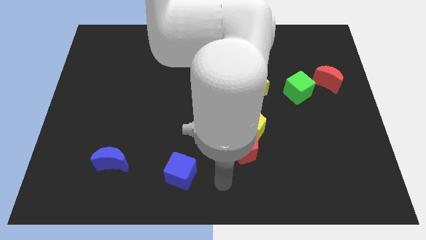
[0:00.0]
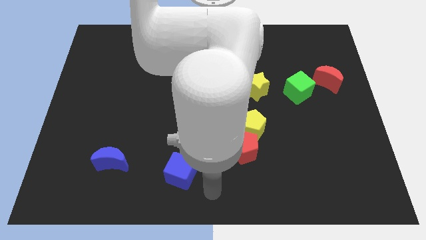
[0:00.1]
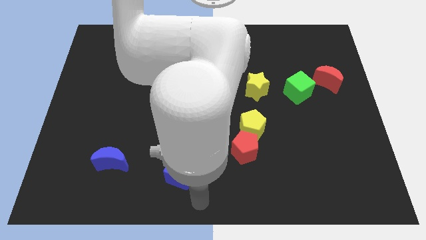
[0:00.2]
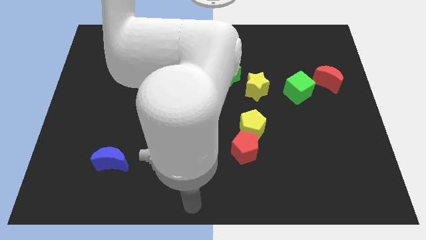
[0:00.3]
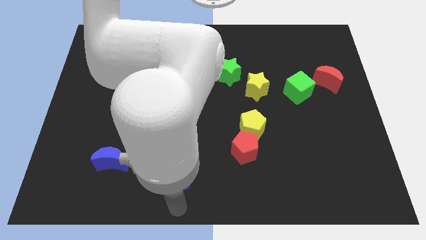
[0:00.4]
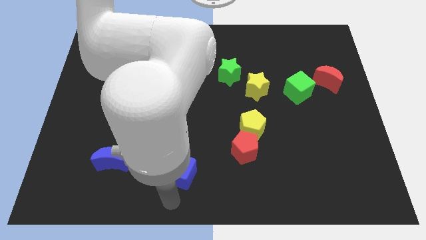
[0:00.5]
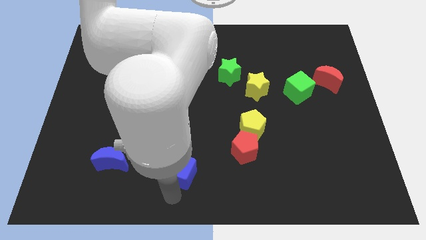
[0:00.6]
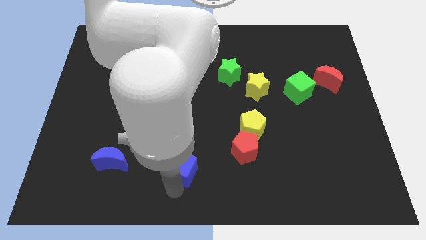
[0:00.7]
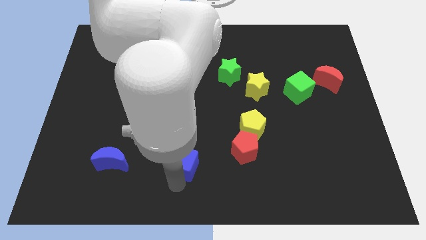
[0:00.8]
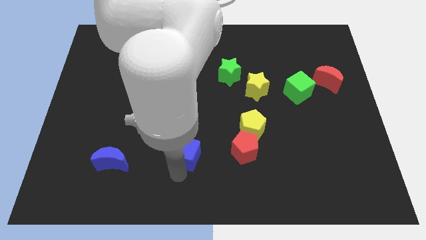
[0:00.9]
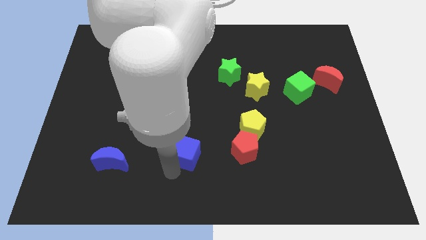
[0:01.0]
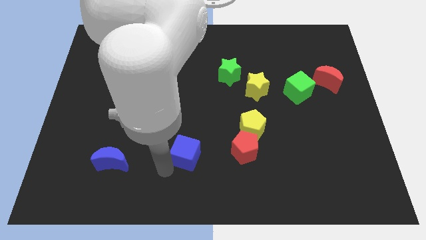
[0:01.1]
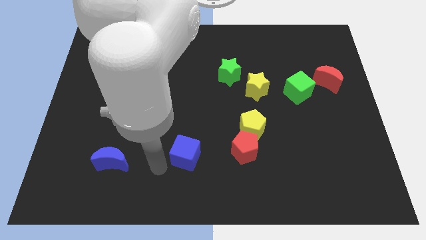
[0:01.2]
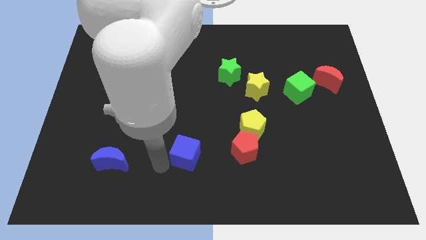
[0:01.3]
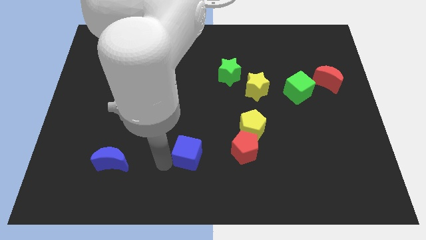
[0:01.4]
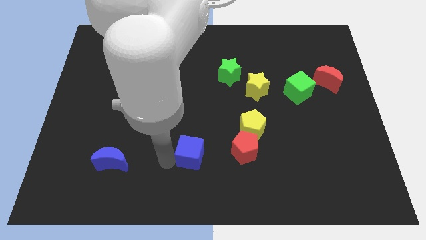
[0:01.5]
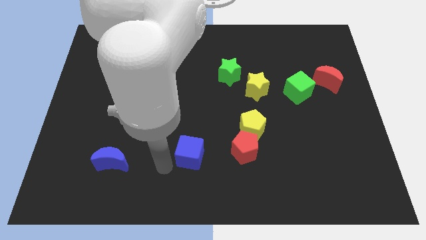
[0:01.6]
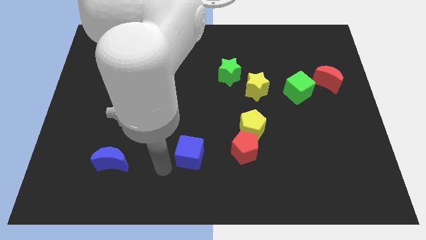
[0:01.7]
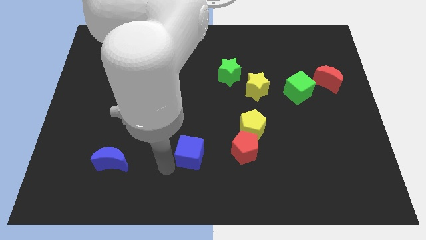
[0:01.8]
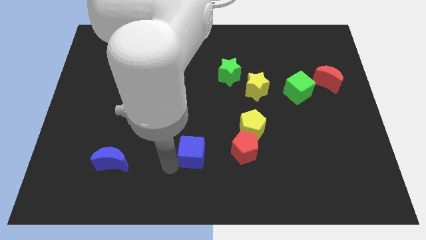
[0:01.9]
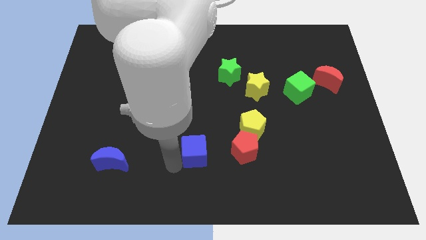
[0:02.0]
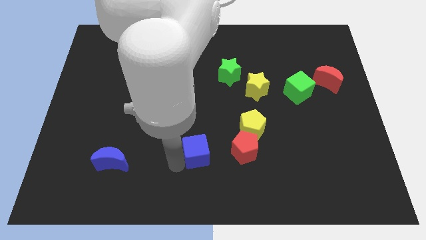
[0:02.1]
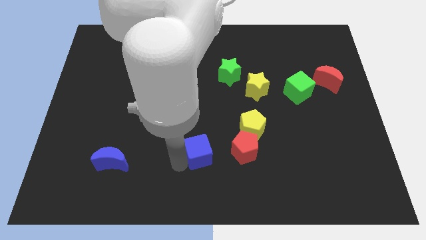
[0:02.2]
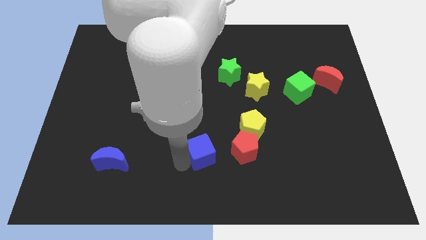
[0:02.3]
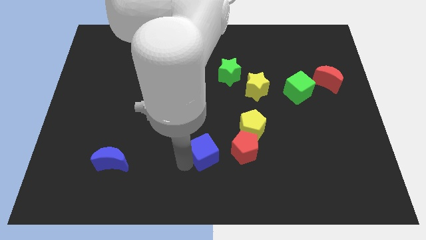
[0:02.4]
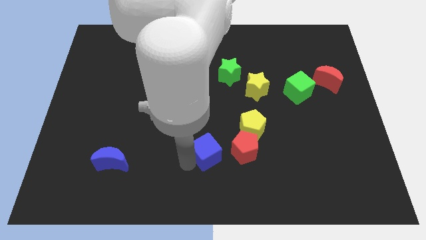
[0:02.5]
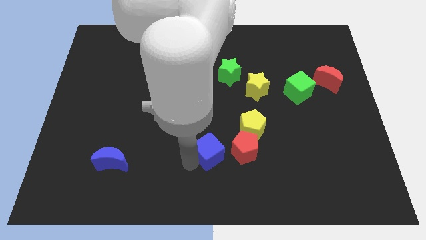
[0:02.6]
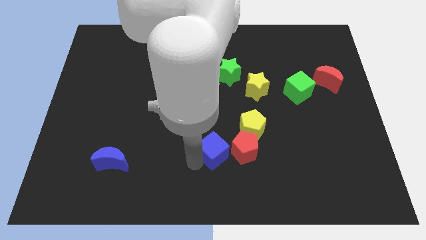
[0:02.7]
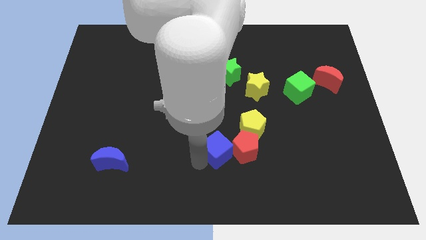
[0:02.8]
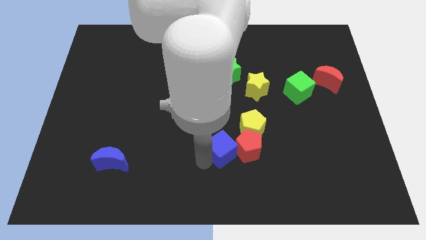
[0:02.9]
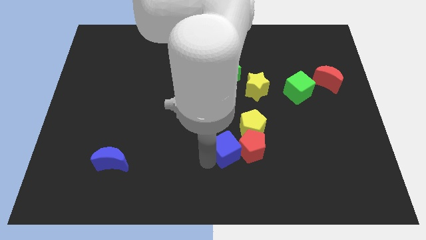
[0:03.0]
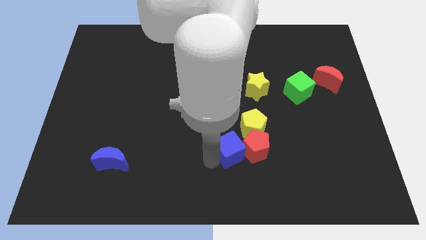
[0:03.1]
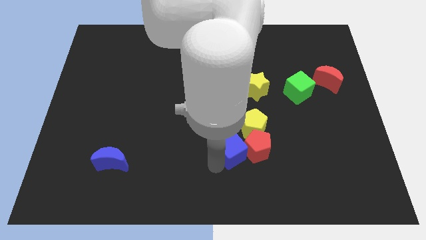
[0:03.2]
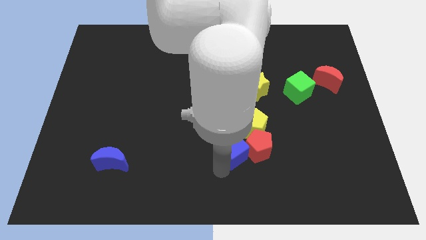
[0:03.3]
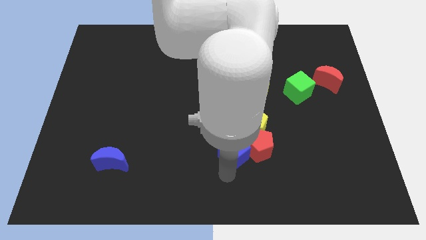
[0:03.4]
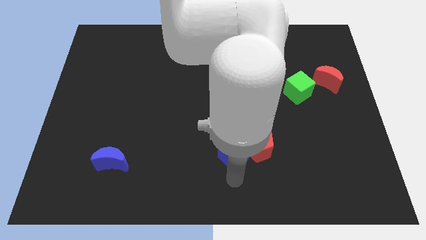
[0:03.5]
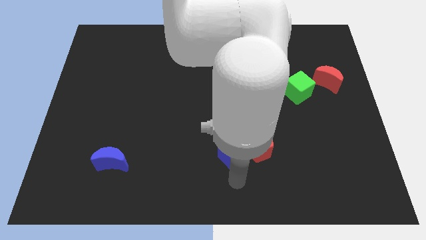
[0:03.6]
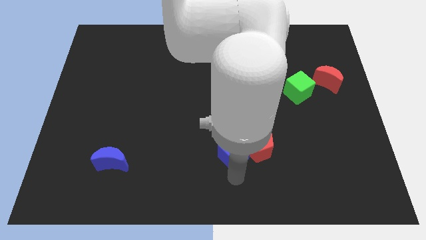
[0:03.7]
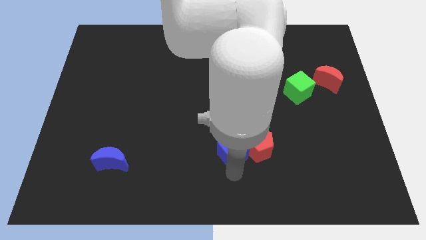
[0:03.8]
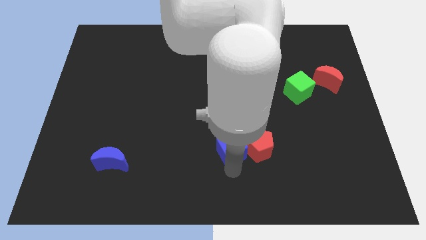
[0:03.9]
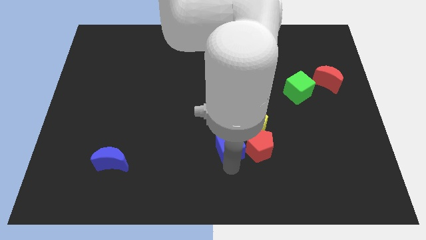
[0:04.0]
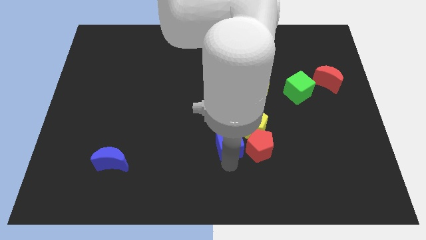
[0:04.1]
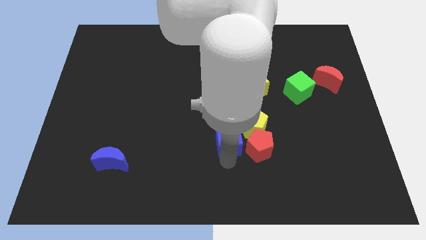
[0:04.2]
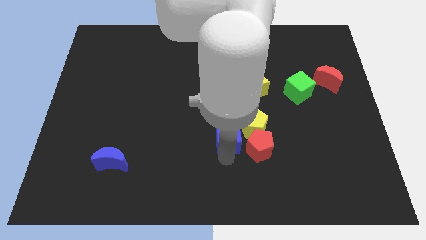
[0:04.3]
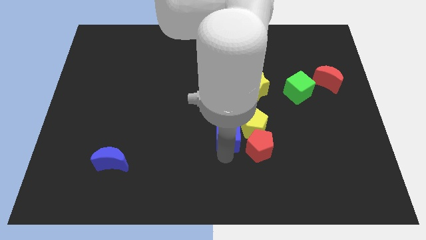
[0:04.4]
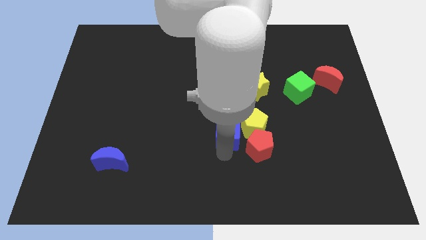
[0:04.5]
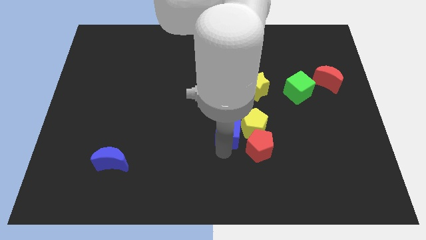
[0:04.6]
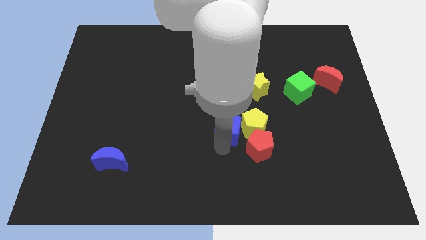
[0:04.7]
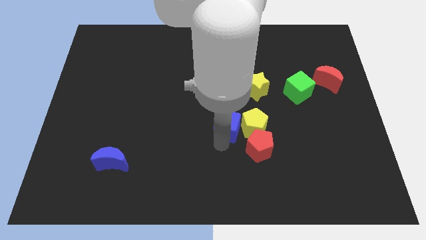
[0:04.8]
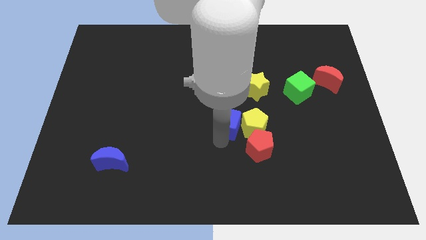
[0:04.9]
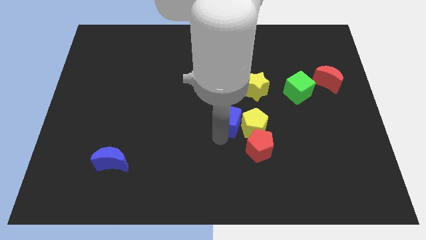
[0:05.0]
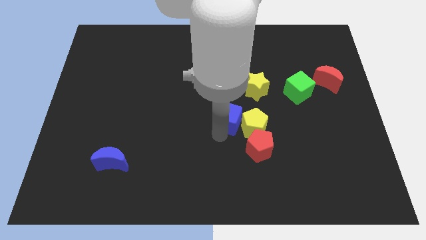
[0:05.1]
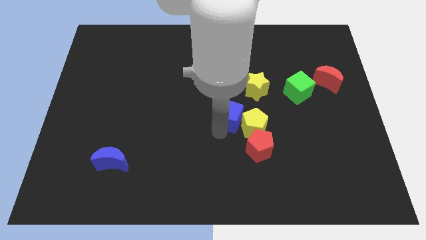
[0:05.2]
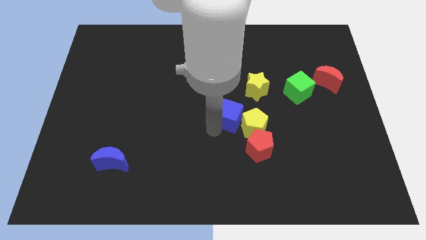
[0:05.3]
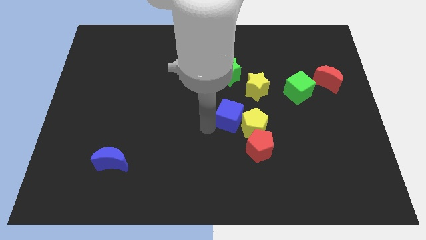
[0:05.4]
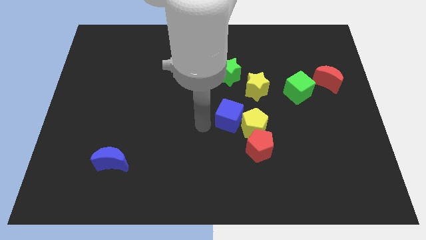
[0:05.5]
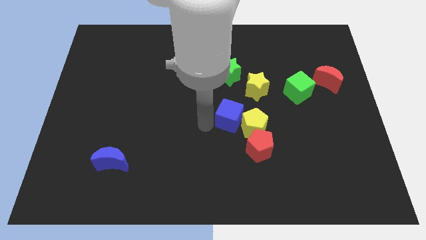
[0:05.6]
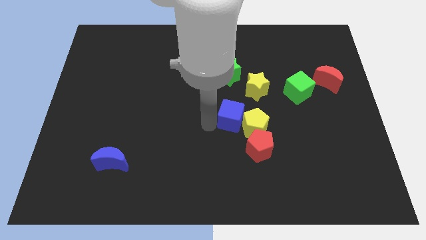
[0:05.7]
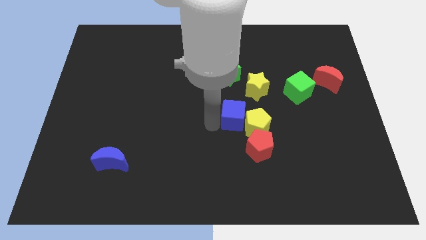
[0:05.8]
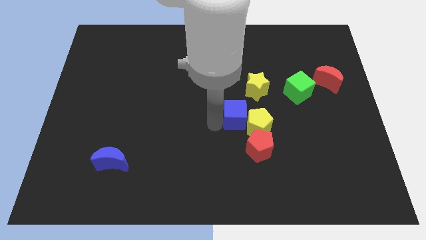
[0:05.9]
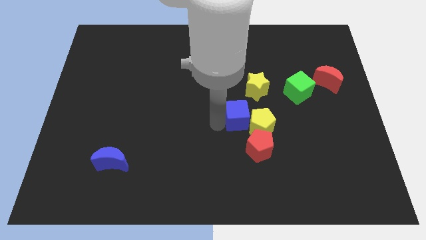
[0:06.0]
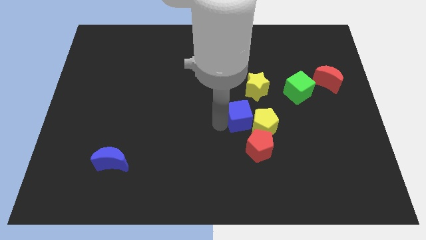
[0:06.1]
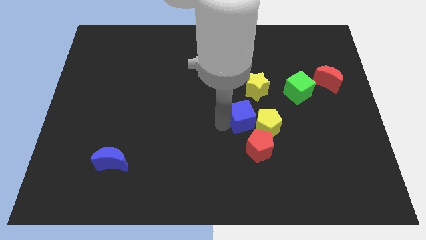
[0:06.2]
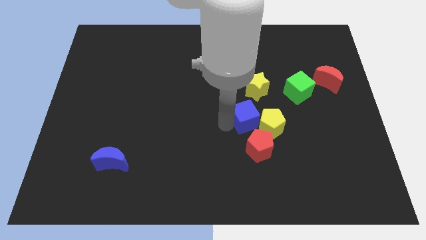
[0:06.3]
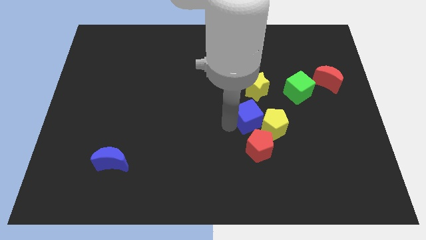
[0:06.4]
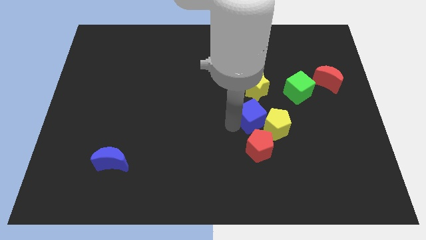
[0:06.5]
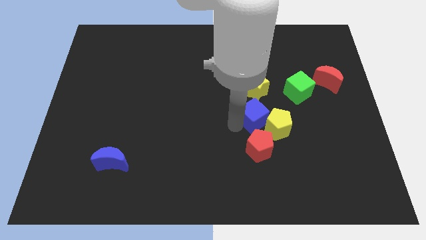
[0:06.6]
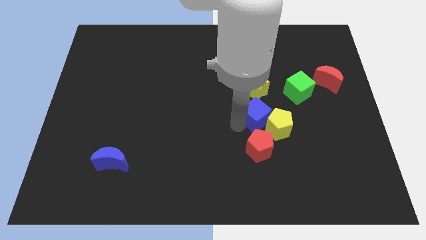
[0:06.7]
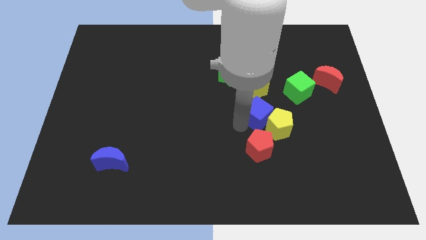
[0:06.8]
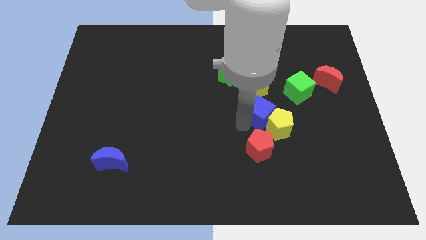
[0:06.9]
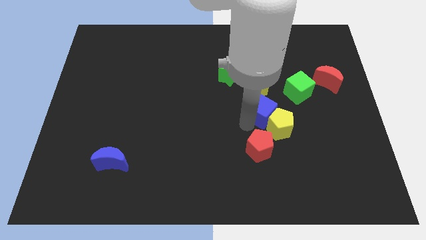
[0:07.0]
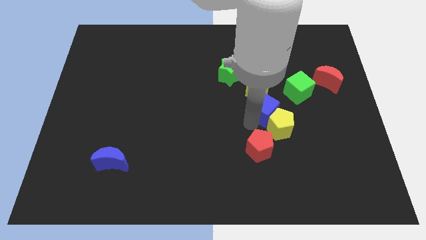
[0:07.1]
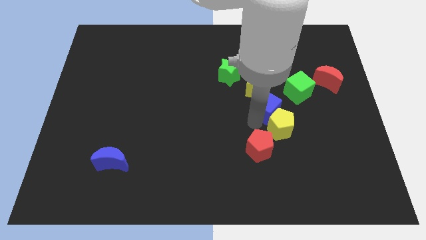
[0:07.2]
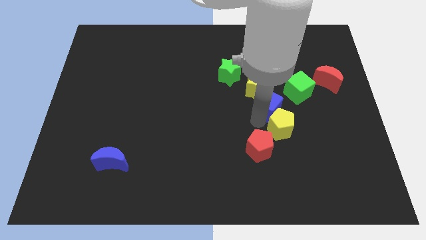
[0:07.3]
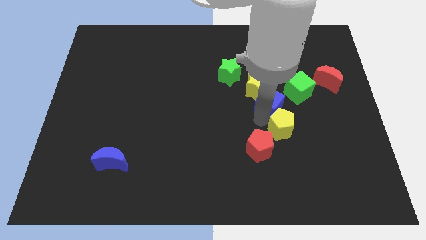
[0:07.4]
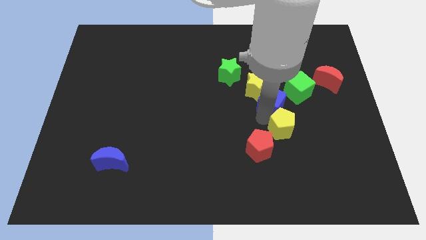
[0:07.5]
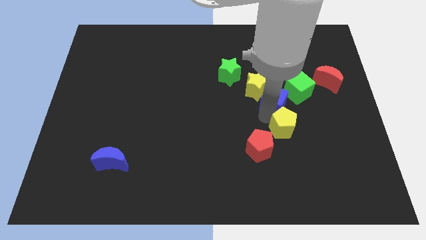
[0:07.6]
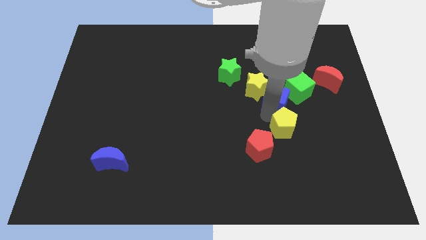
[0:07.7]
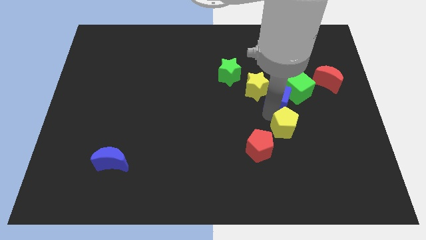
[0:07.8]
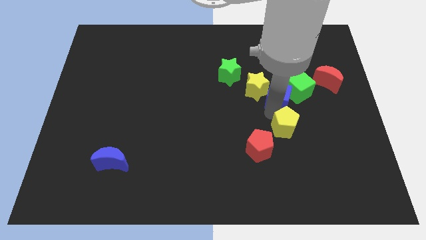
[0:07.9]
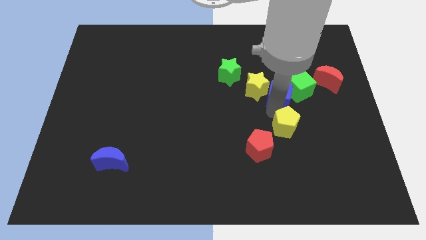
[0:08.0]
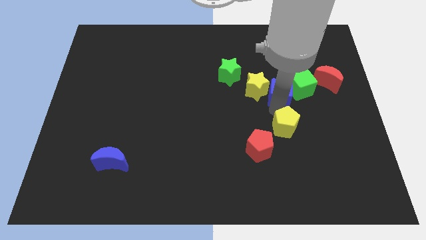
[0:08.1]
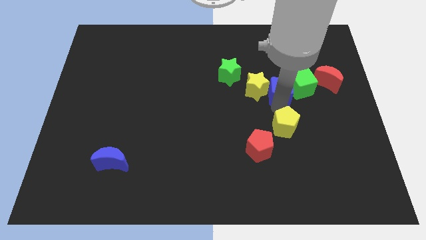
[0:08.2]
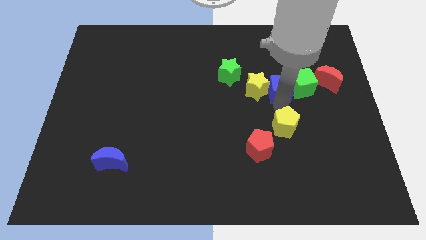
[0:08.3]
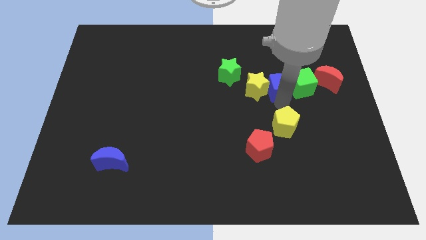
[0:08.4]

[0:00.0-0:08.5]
push the blue cube to the right of the green star
